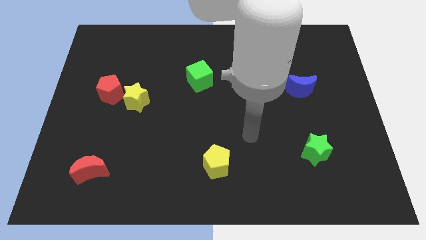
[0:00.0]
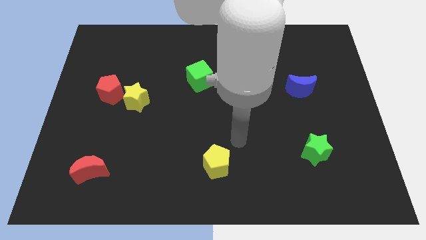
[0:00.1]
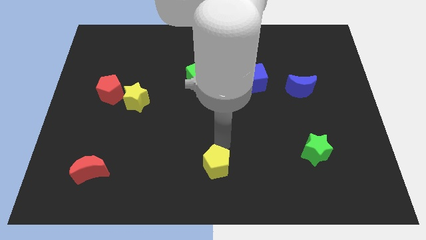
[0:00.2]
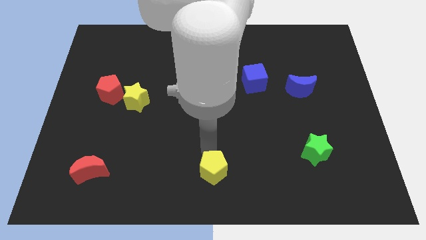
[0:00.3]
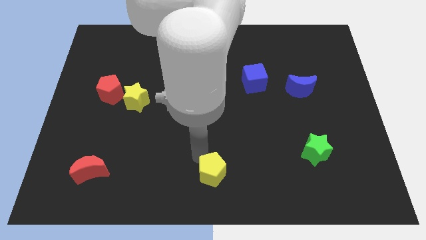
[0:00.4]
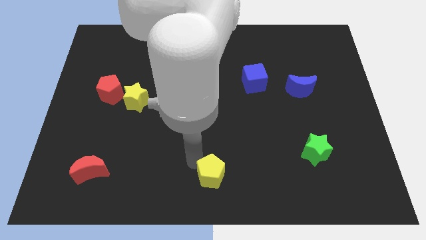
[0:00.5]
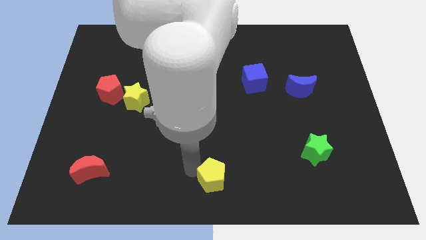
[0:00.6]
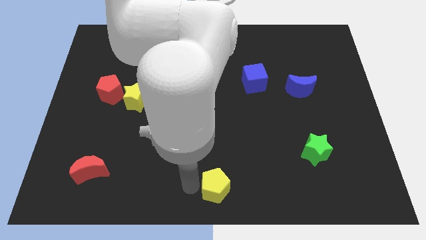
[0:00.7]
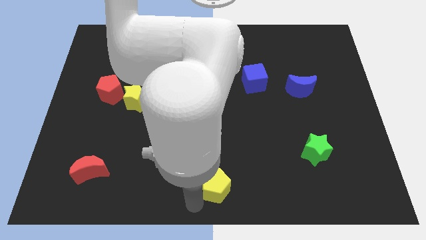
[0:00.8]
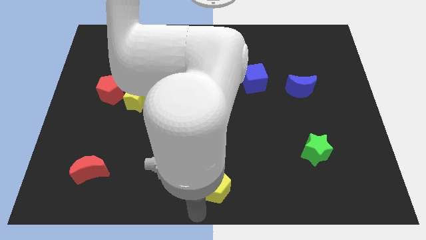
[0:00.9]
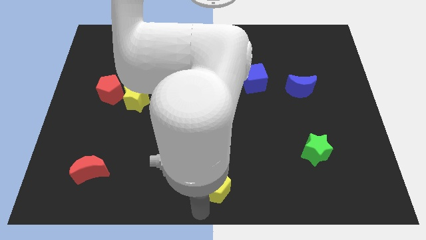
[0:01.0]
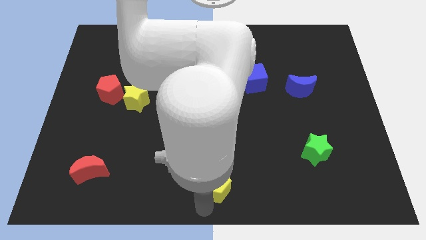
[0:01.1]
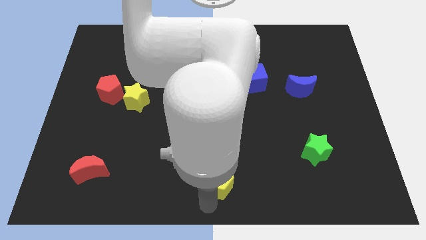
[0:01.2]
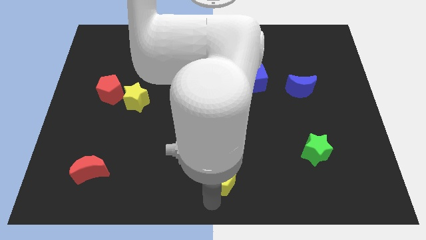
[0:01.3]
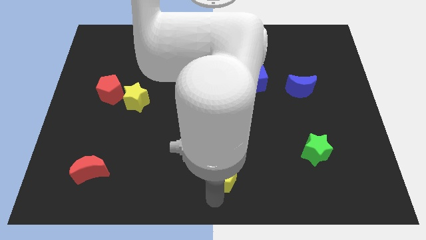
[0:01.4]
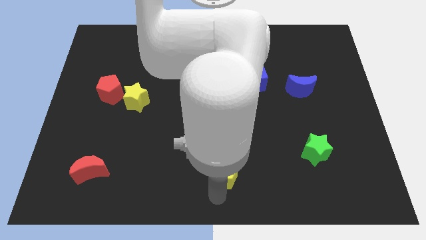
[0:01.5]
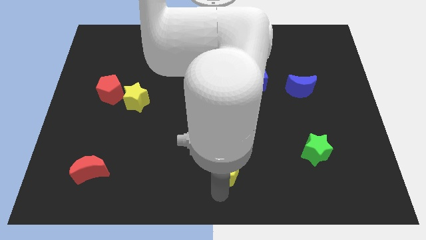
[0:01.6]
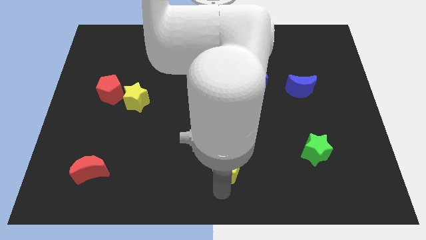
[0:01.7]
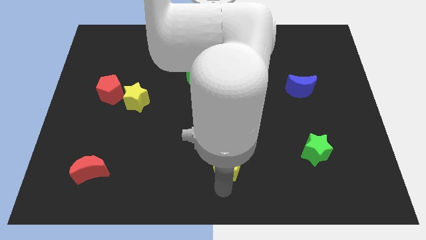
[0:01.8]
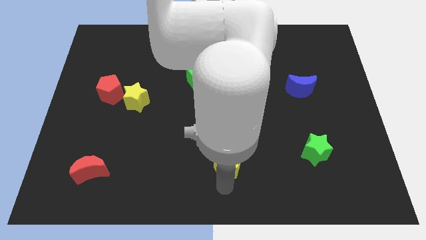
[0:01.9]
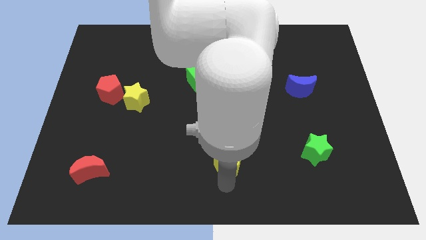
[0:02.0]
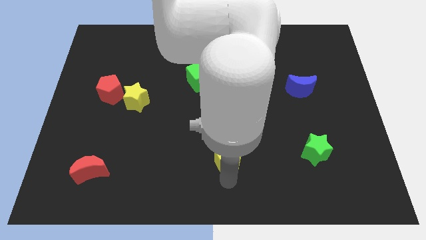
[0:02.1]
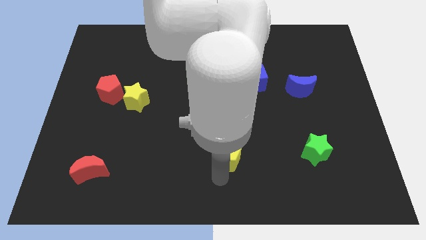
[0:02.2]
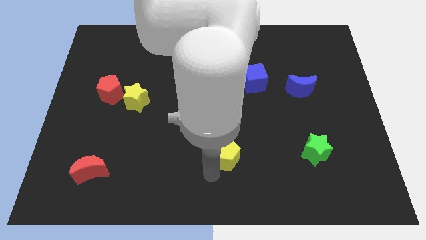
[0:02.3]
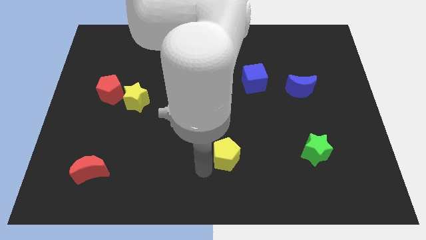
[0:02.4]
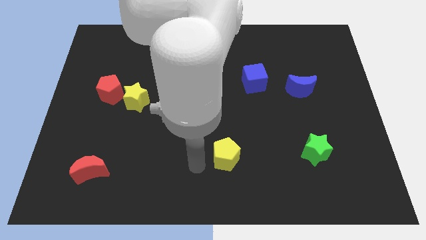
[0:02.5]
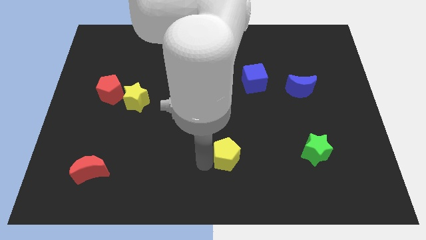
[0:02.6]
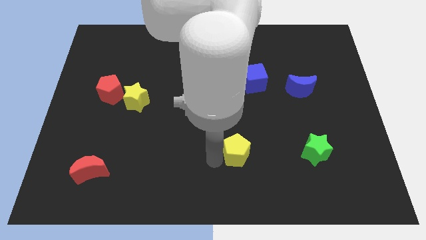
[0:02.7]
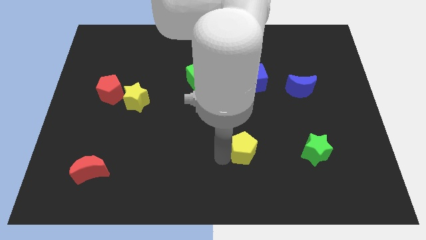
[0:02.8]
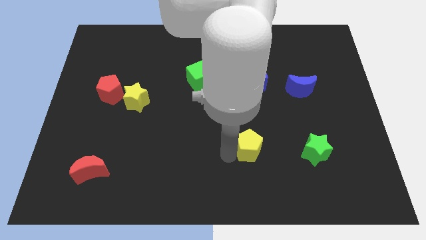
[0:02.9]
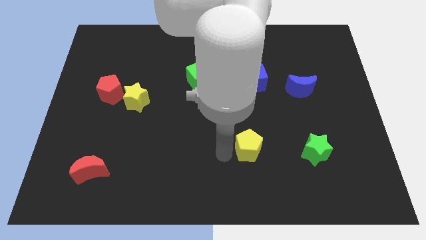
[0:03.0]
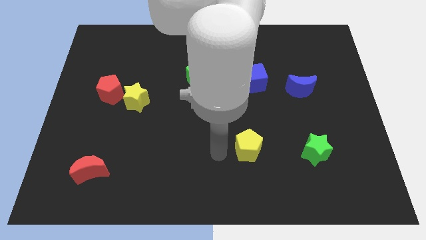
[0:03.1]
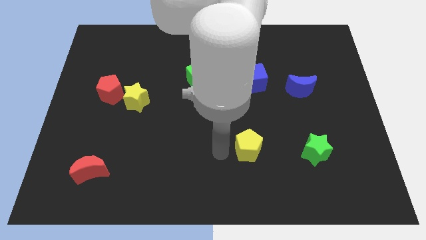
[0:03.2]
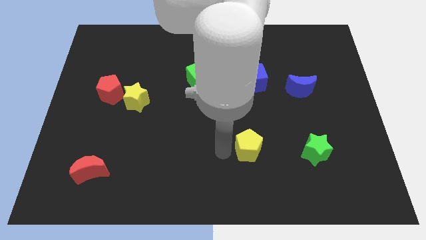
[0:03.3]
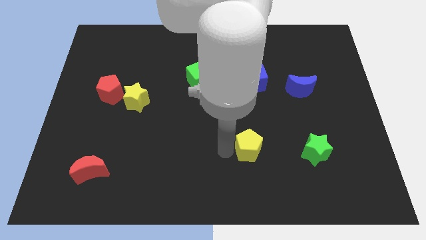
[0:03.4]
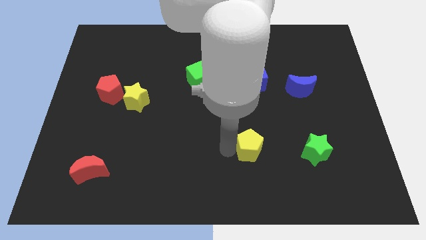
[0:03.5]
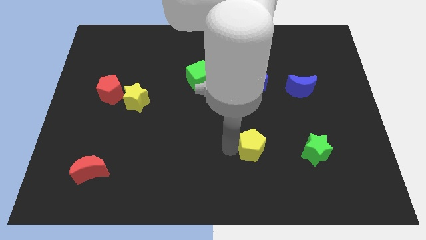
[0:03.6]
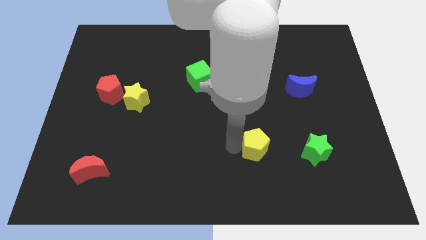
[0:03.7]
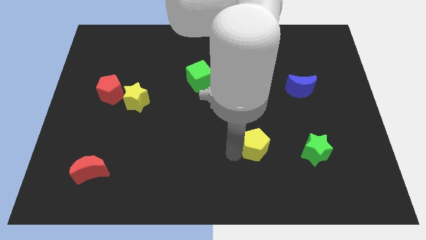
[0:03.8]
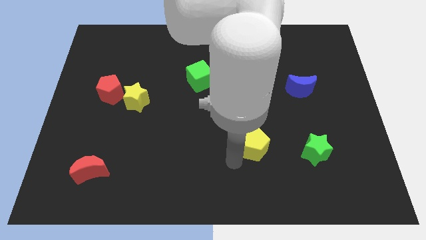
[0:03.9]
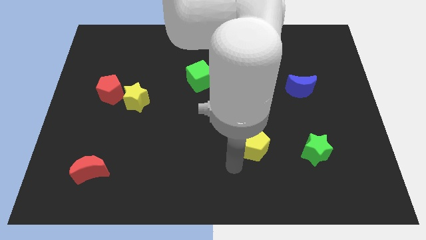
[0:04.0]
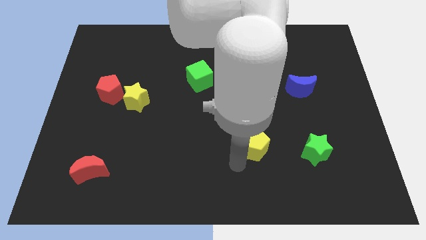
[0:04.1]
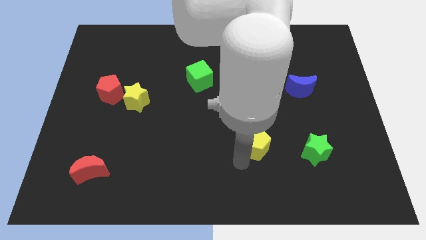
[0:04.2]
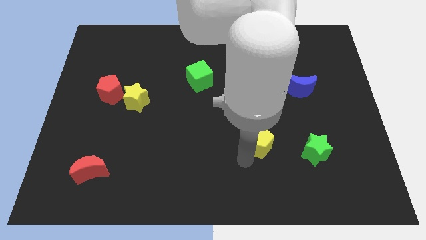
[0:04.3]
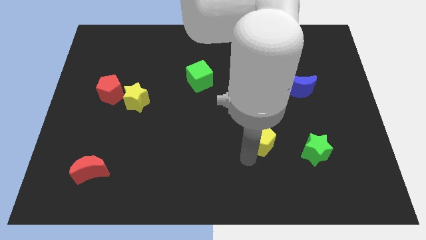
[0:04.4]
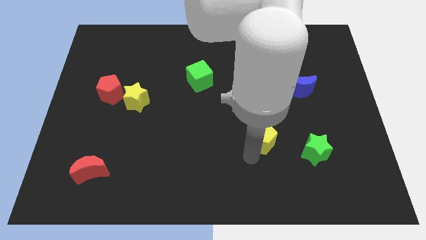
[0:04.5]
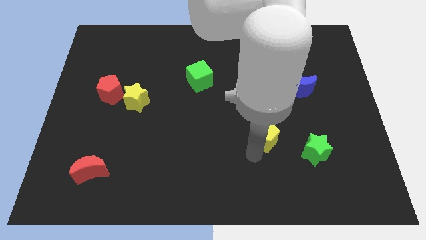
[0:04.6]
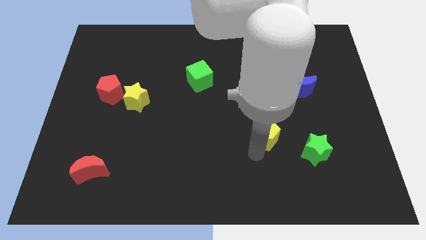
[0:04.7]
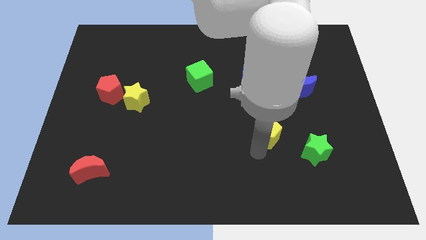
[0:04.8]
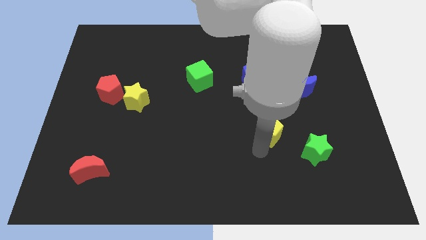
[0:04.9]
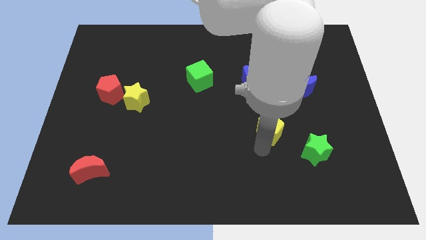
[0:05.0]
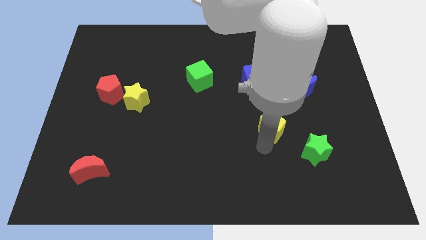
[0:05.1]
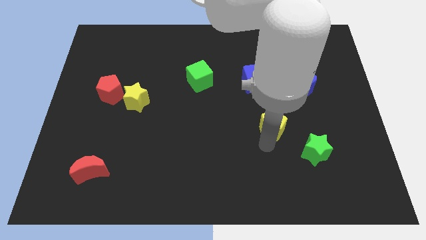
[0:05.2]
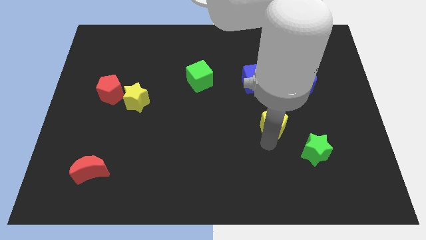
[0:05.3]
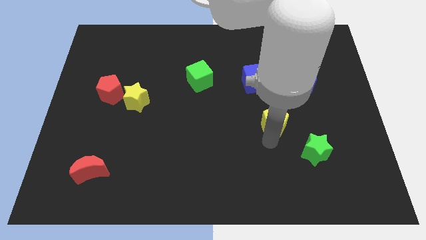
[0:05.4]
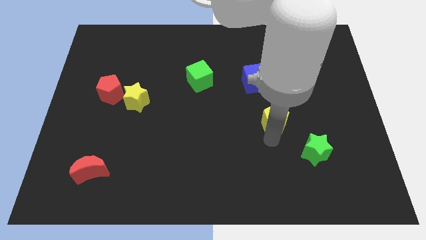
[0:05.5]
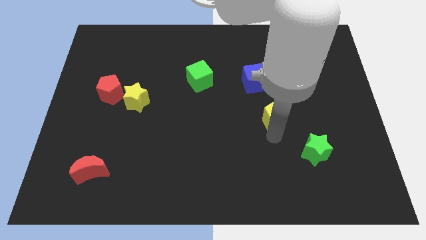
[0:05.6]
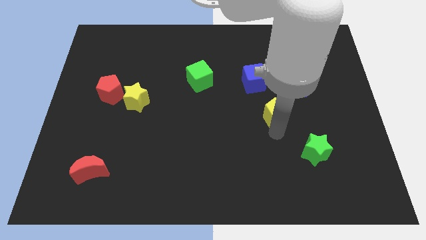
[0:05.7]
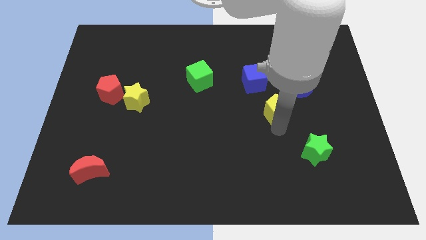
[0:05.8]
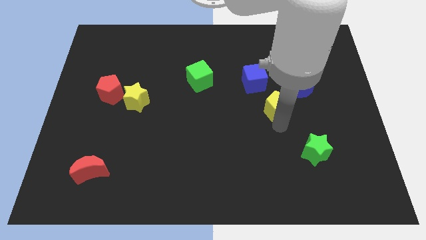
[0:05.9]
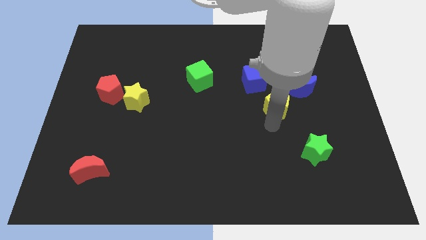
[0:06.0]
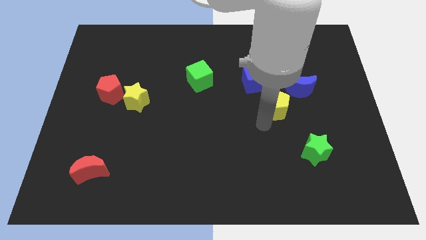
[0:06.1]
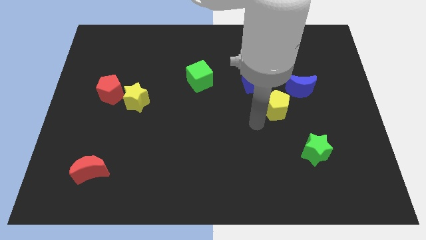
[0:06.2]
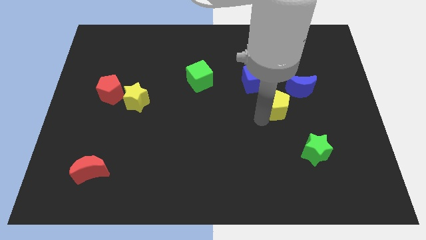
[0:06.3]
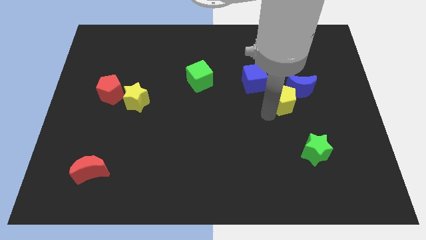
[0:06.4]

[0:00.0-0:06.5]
put the yellow pentagon close to the blue moon
